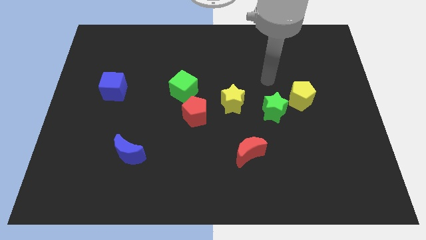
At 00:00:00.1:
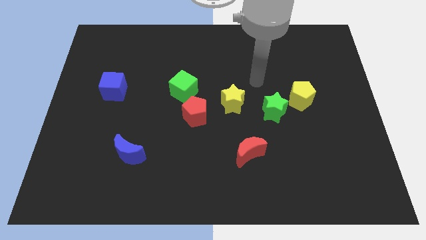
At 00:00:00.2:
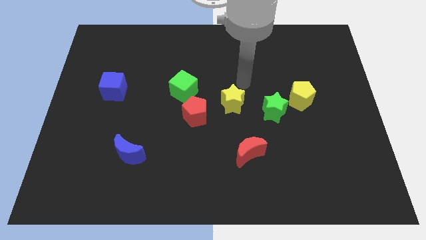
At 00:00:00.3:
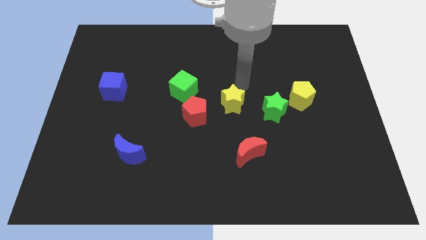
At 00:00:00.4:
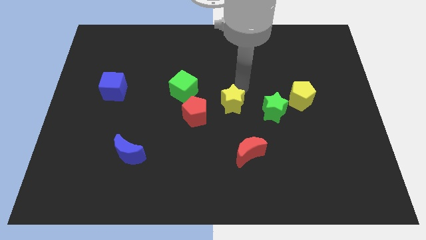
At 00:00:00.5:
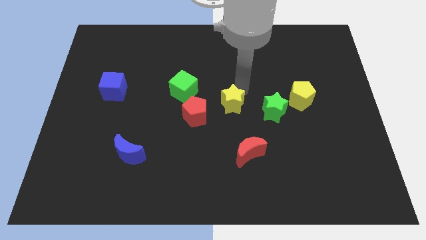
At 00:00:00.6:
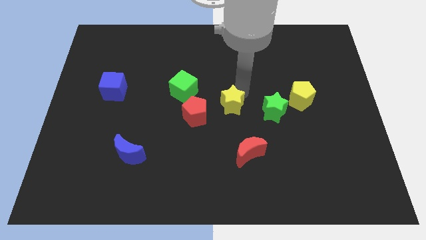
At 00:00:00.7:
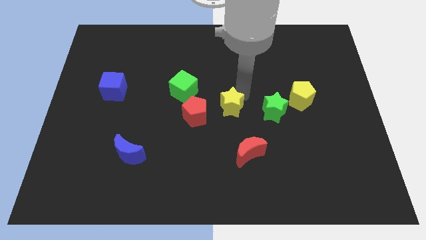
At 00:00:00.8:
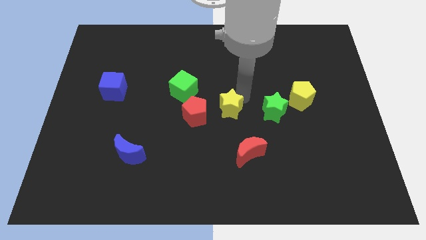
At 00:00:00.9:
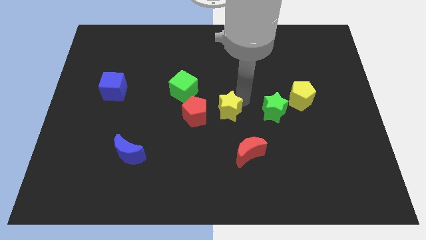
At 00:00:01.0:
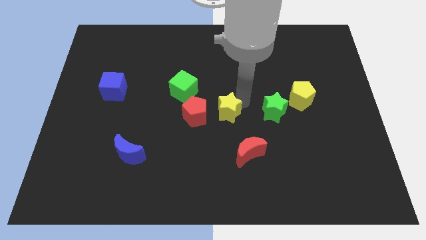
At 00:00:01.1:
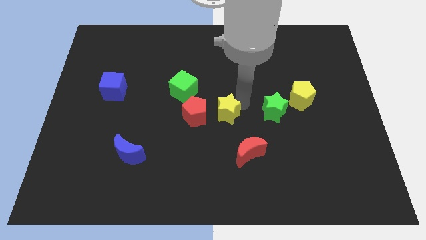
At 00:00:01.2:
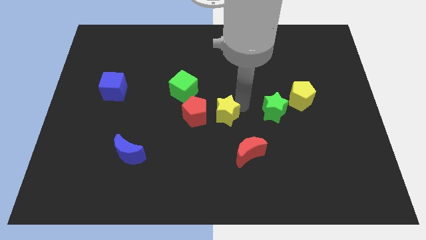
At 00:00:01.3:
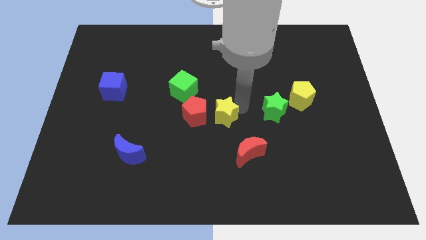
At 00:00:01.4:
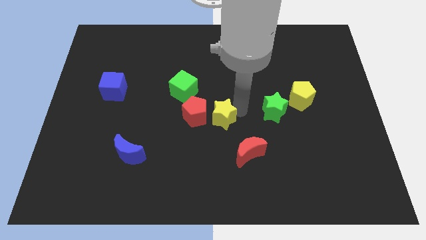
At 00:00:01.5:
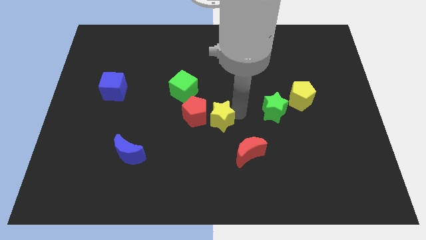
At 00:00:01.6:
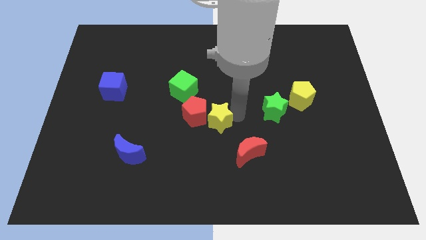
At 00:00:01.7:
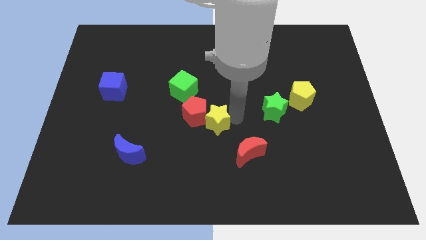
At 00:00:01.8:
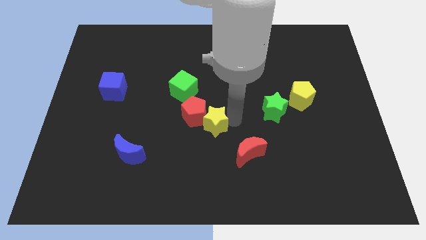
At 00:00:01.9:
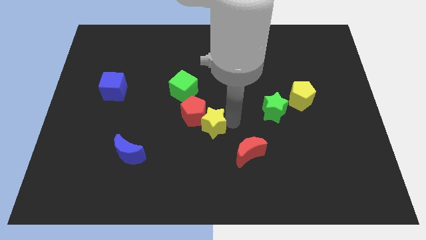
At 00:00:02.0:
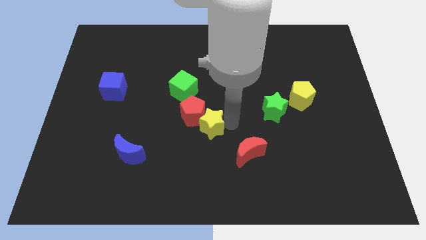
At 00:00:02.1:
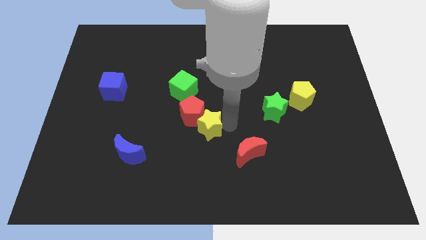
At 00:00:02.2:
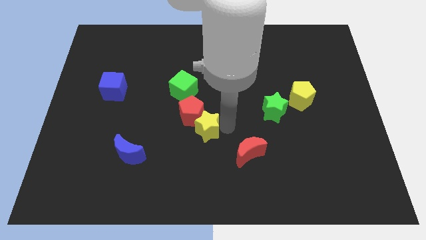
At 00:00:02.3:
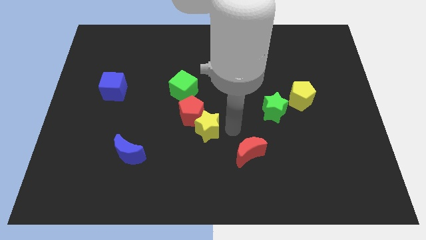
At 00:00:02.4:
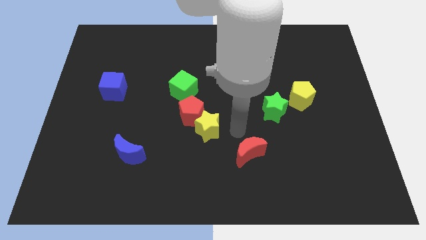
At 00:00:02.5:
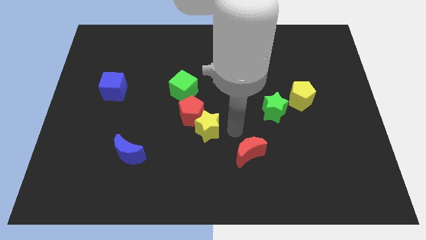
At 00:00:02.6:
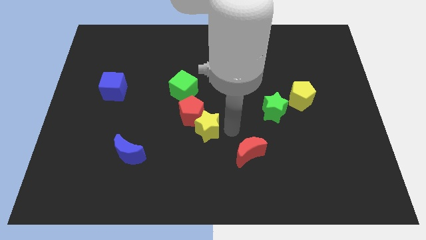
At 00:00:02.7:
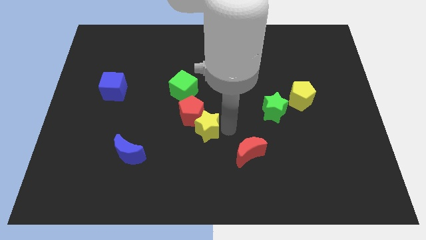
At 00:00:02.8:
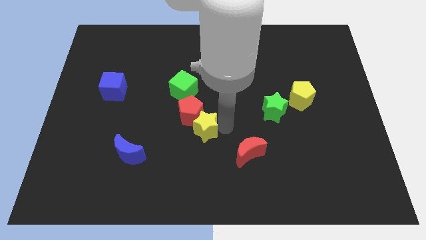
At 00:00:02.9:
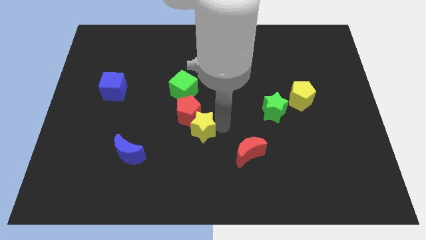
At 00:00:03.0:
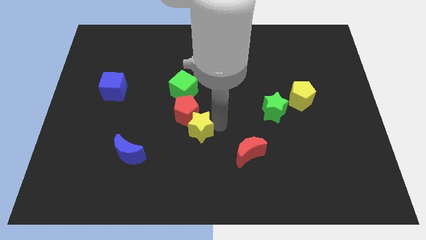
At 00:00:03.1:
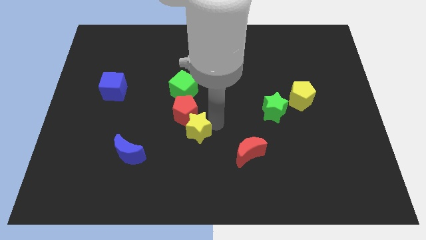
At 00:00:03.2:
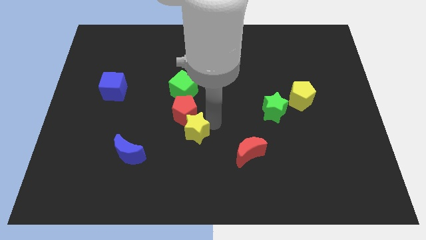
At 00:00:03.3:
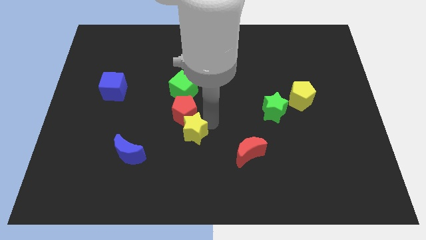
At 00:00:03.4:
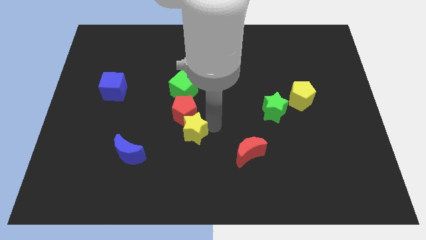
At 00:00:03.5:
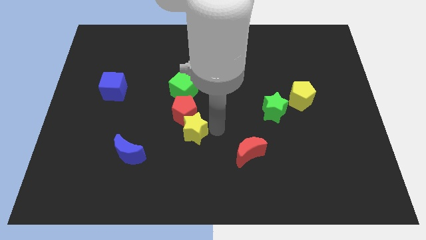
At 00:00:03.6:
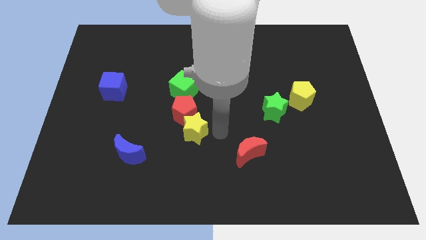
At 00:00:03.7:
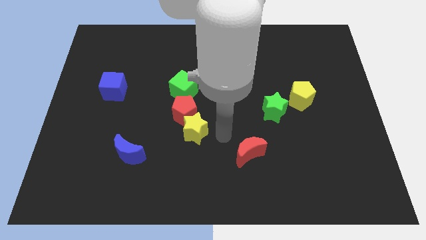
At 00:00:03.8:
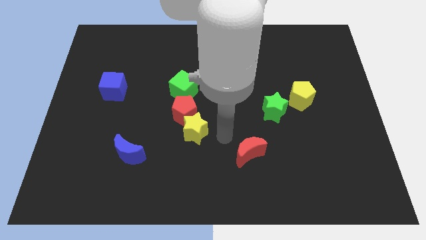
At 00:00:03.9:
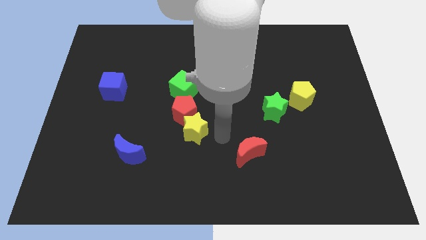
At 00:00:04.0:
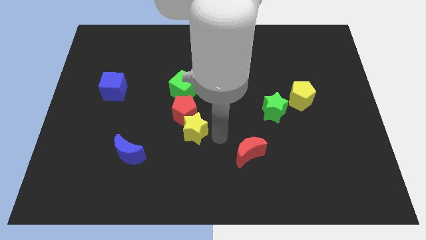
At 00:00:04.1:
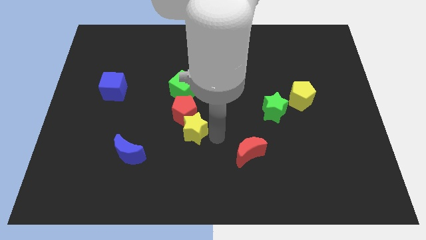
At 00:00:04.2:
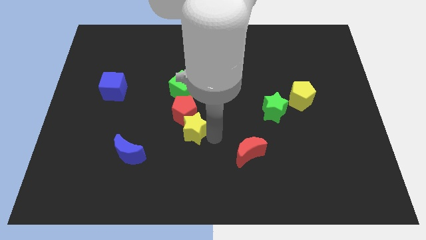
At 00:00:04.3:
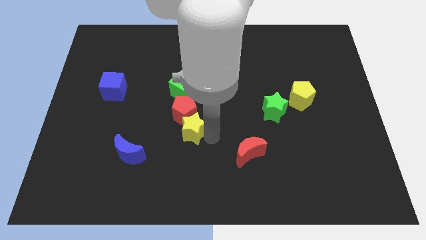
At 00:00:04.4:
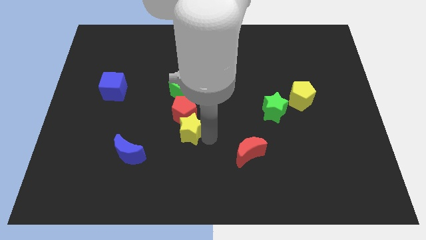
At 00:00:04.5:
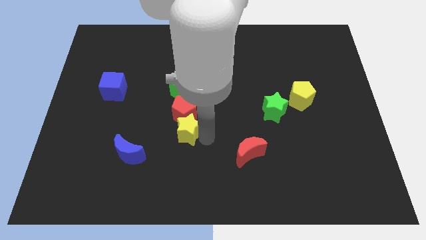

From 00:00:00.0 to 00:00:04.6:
push the yellow star to the left a little

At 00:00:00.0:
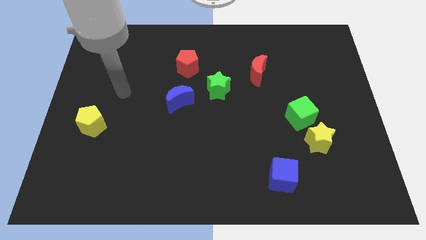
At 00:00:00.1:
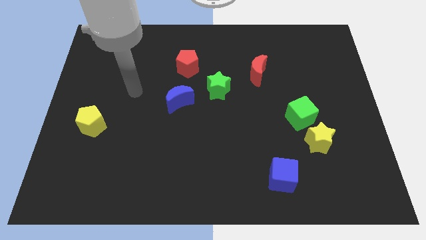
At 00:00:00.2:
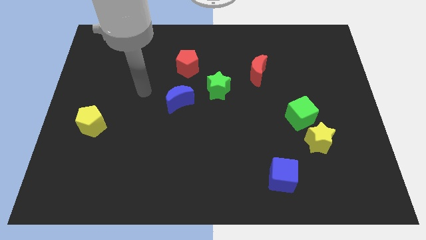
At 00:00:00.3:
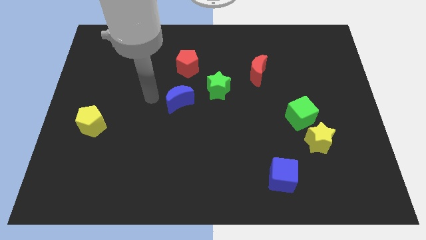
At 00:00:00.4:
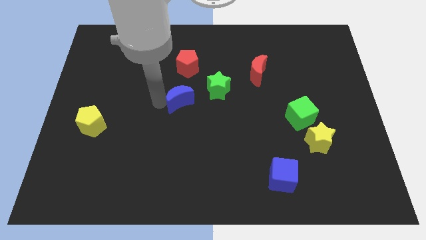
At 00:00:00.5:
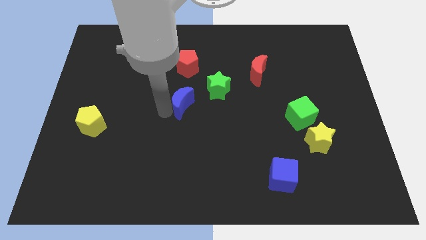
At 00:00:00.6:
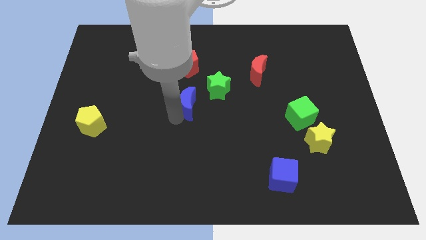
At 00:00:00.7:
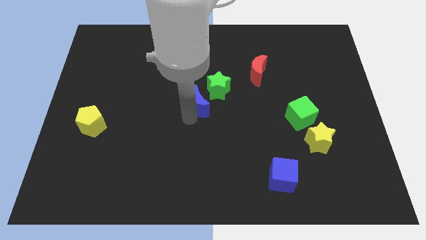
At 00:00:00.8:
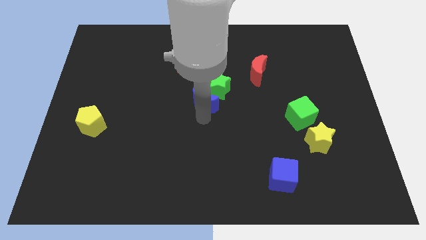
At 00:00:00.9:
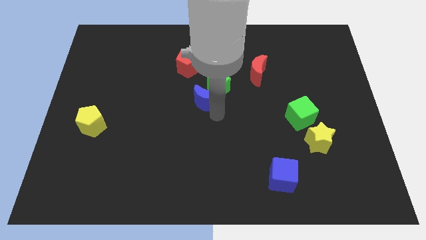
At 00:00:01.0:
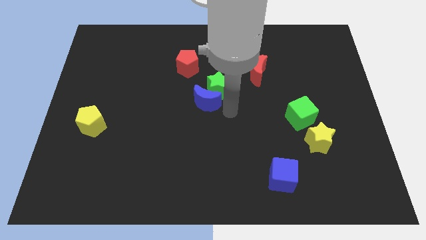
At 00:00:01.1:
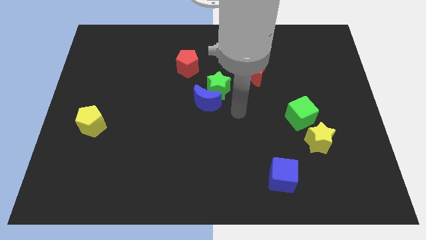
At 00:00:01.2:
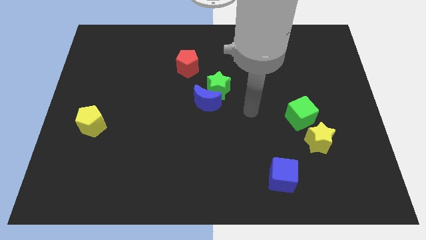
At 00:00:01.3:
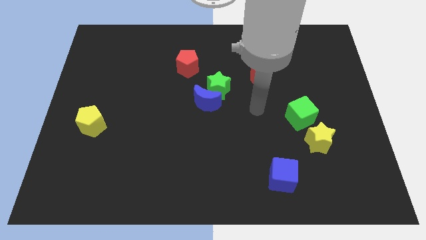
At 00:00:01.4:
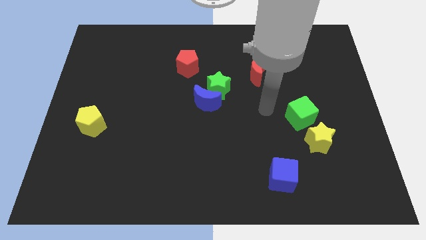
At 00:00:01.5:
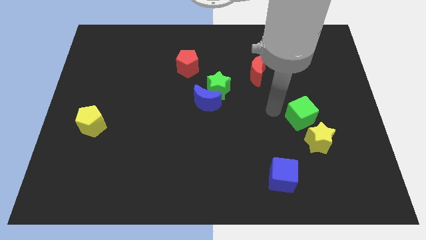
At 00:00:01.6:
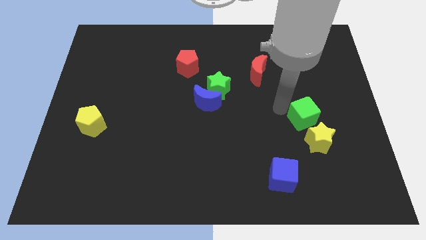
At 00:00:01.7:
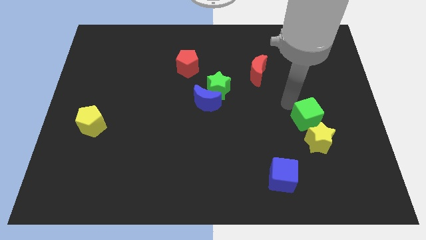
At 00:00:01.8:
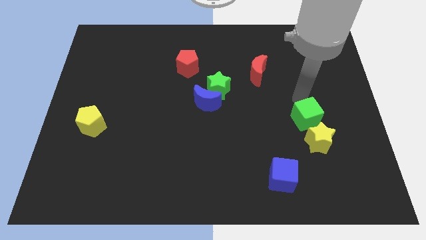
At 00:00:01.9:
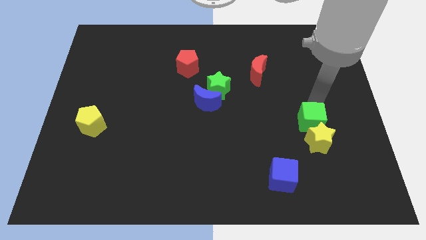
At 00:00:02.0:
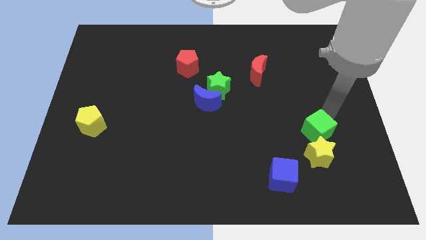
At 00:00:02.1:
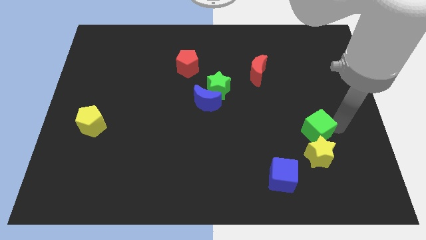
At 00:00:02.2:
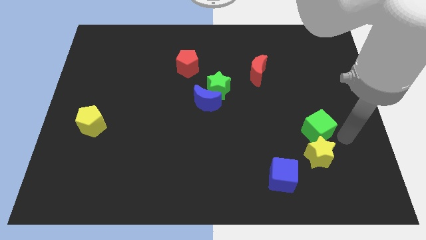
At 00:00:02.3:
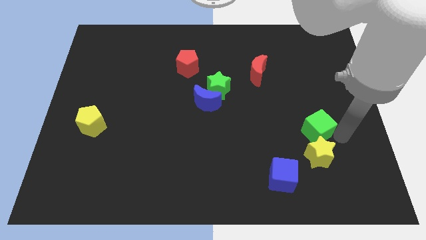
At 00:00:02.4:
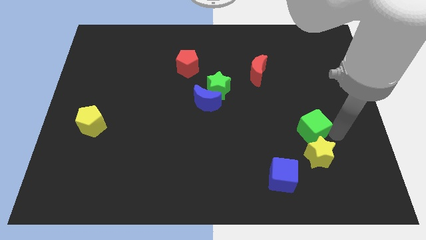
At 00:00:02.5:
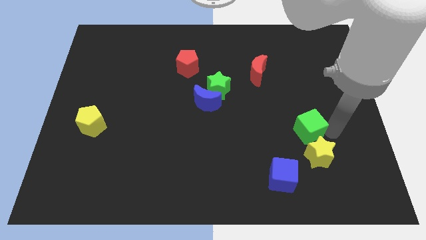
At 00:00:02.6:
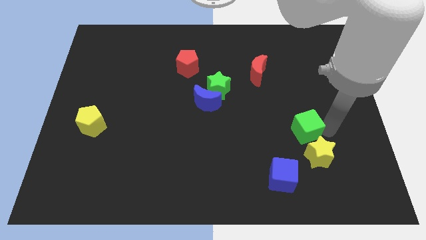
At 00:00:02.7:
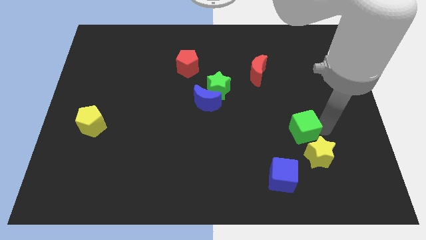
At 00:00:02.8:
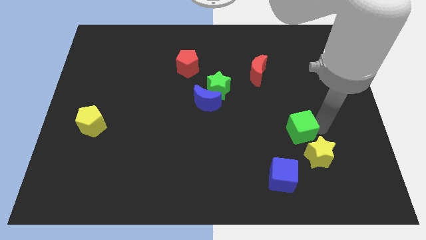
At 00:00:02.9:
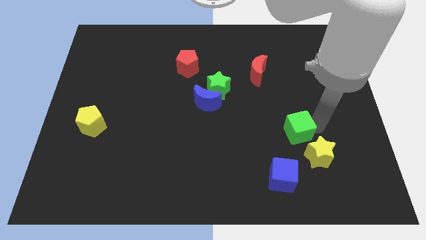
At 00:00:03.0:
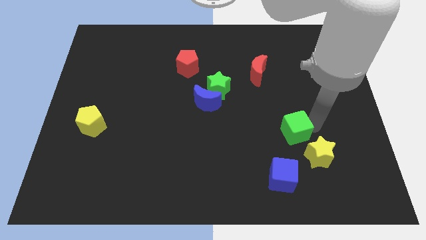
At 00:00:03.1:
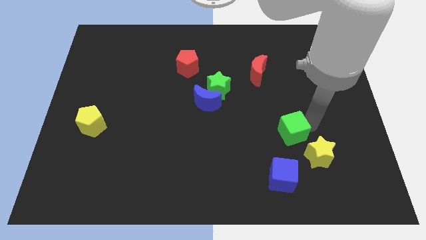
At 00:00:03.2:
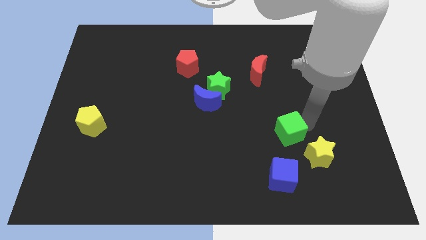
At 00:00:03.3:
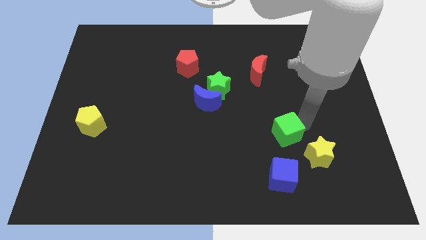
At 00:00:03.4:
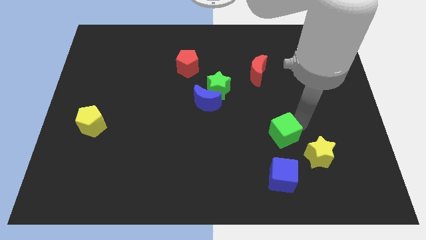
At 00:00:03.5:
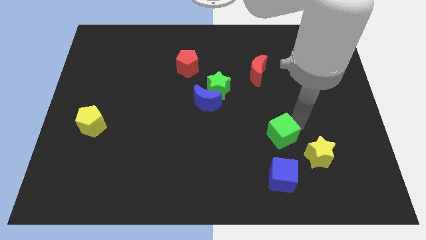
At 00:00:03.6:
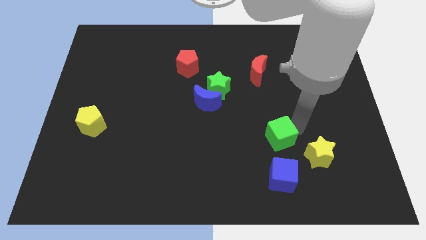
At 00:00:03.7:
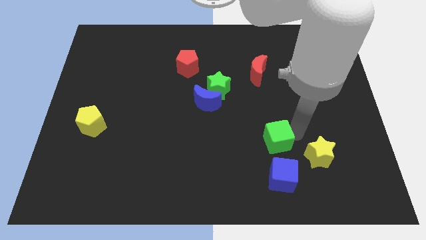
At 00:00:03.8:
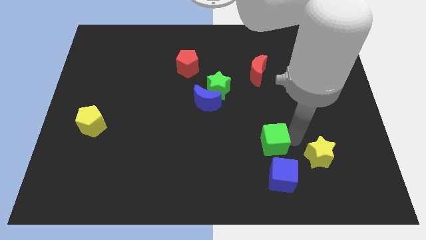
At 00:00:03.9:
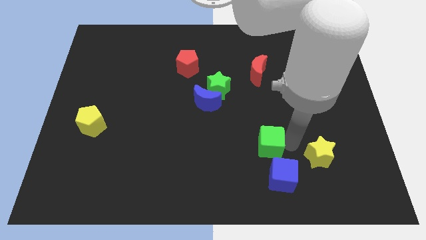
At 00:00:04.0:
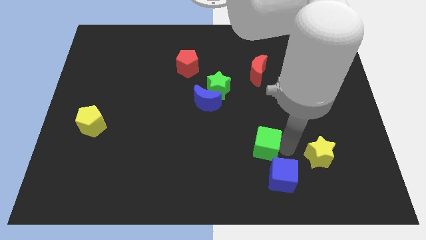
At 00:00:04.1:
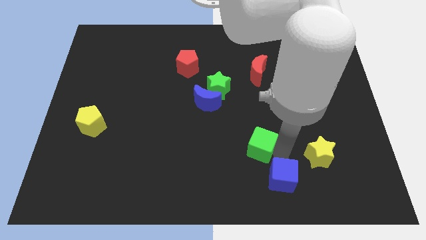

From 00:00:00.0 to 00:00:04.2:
slightly slide the green cube to the left
